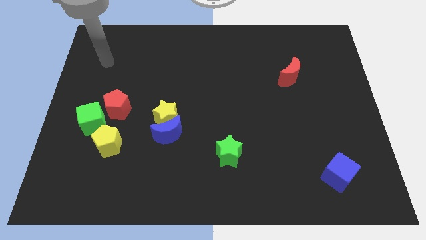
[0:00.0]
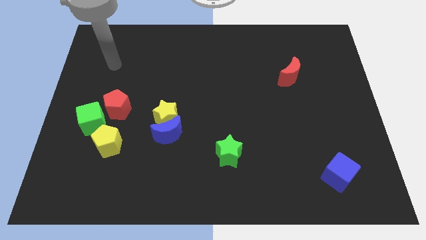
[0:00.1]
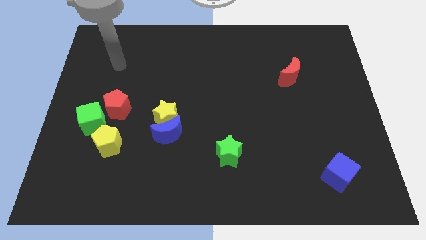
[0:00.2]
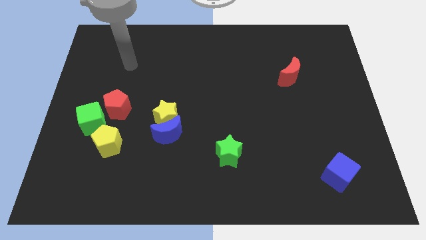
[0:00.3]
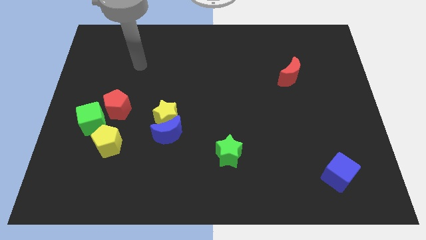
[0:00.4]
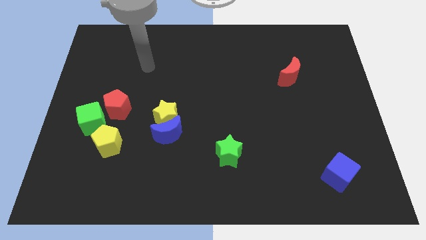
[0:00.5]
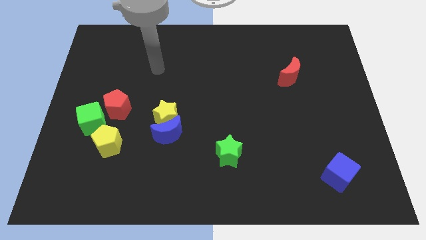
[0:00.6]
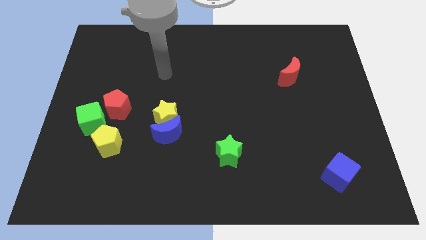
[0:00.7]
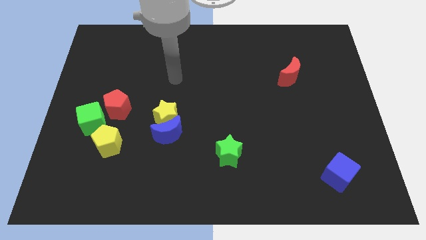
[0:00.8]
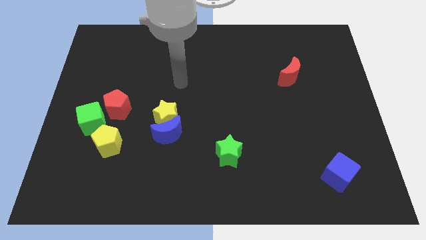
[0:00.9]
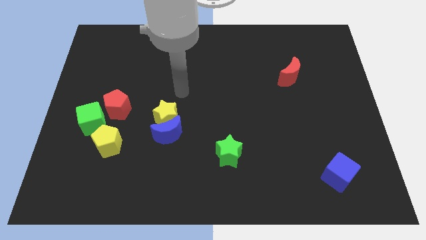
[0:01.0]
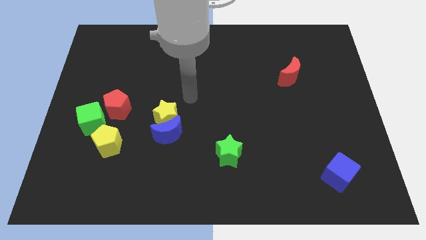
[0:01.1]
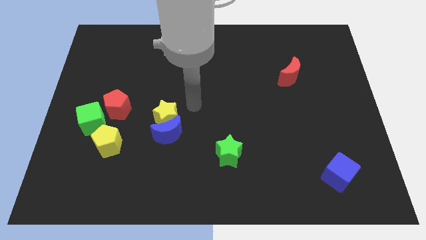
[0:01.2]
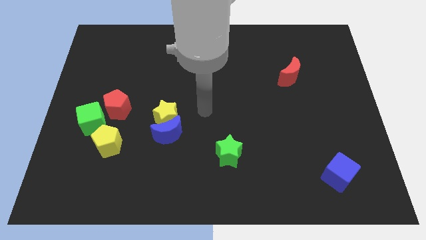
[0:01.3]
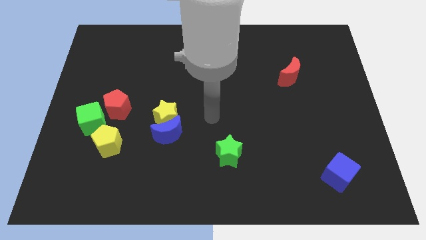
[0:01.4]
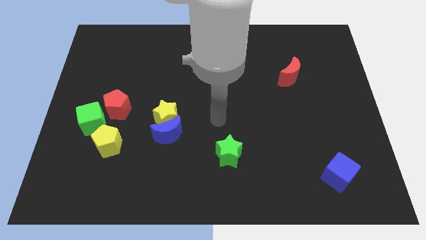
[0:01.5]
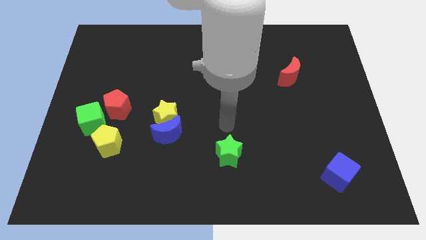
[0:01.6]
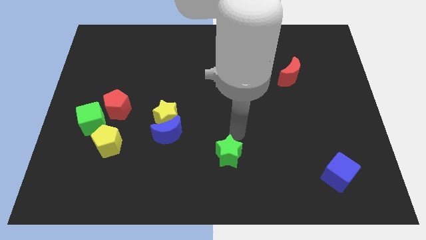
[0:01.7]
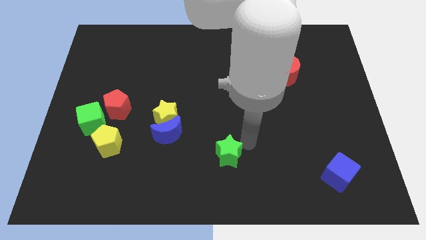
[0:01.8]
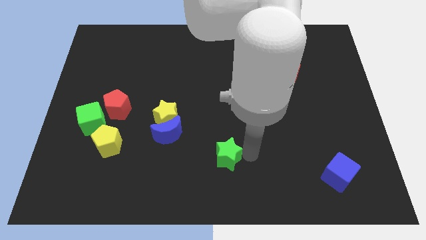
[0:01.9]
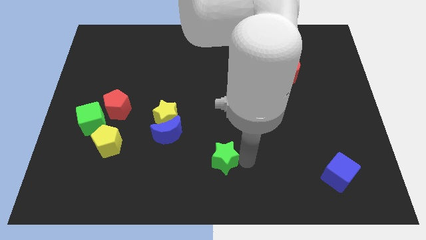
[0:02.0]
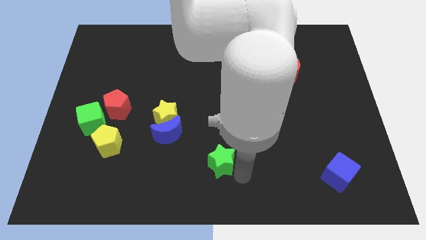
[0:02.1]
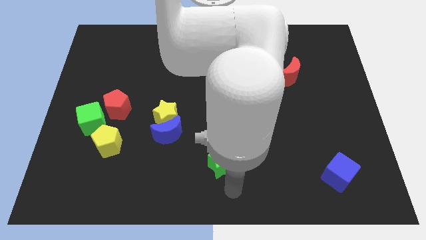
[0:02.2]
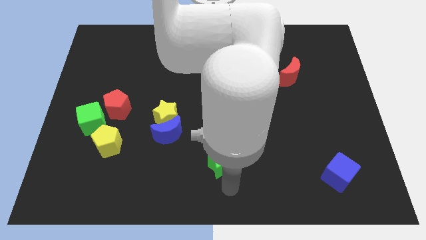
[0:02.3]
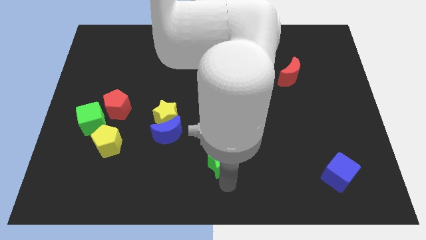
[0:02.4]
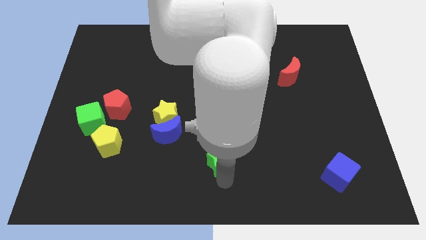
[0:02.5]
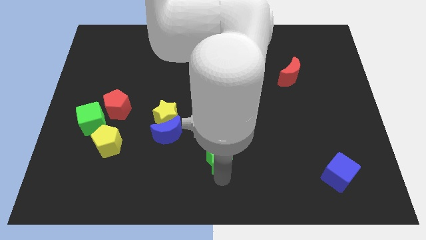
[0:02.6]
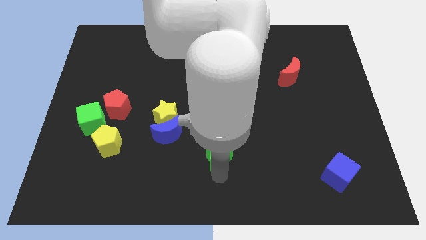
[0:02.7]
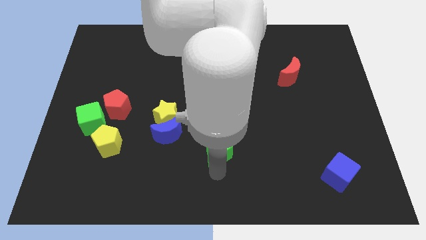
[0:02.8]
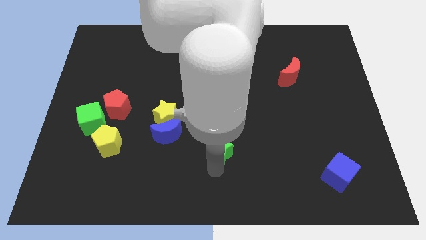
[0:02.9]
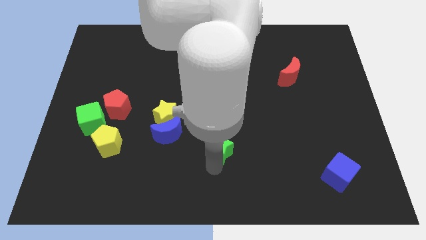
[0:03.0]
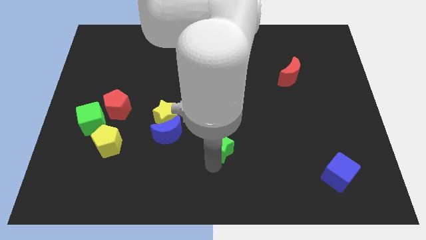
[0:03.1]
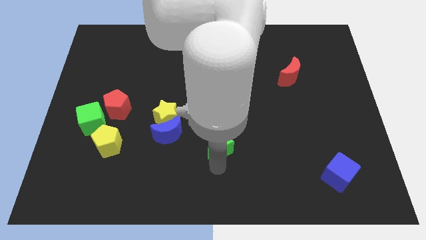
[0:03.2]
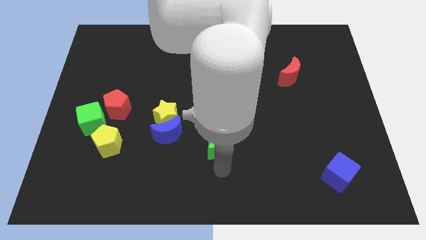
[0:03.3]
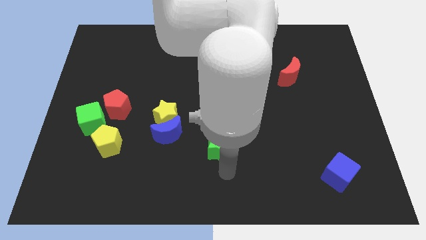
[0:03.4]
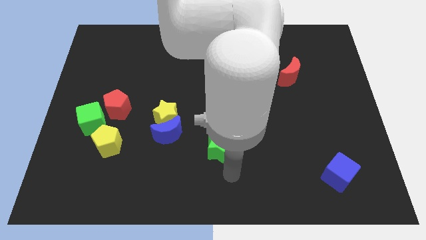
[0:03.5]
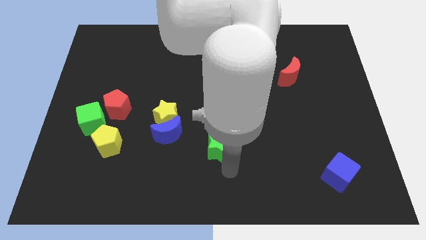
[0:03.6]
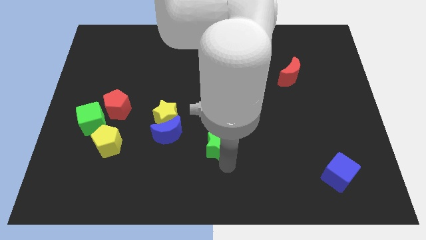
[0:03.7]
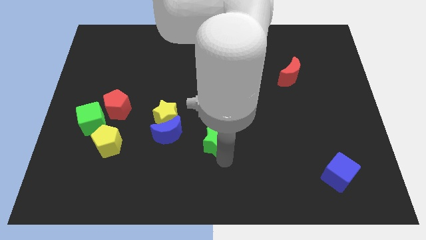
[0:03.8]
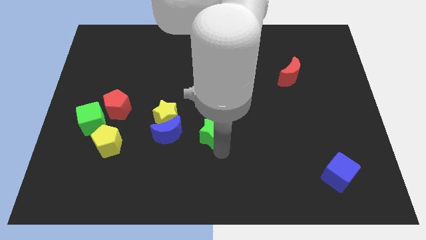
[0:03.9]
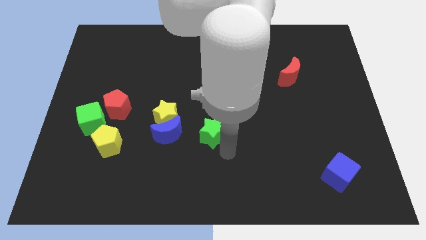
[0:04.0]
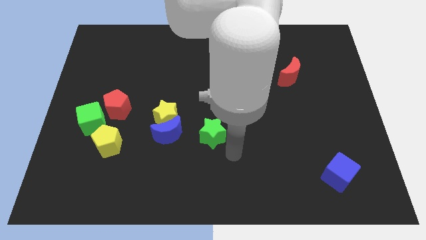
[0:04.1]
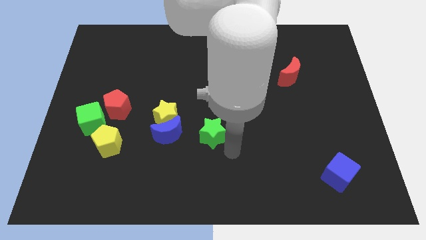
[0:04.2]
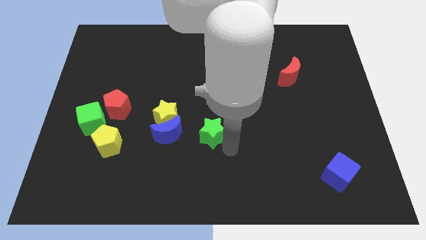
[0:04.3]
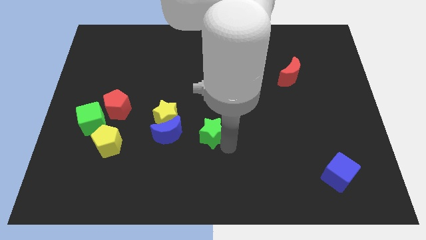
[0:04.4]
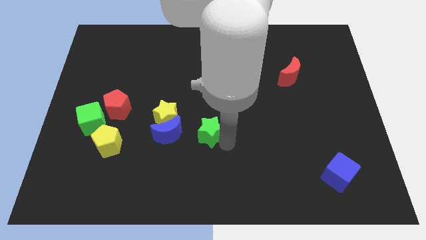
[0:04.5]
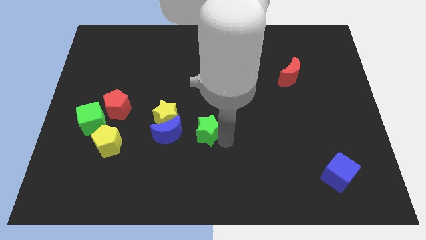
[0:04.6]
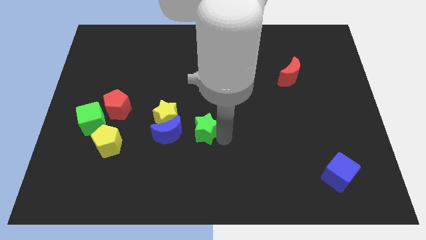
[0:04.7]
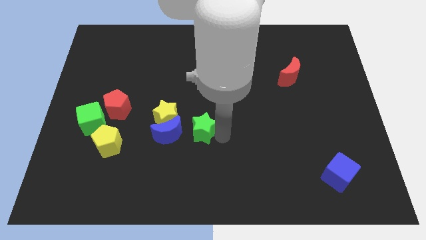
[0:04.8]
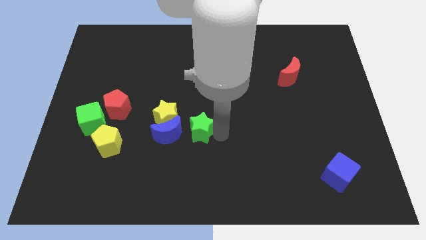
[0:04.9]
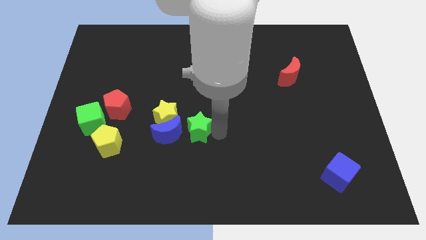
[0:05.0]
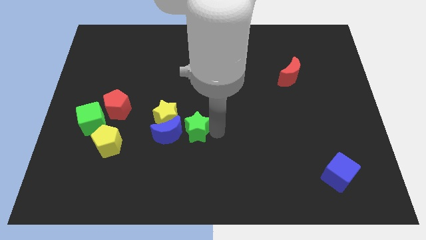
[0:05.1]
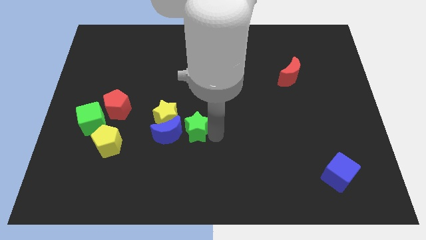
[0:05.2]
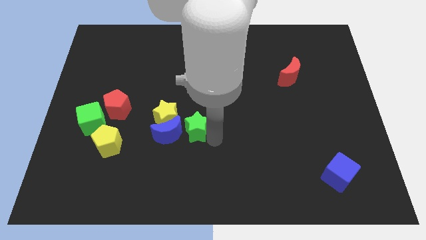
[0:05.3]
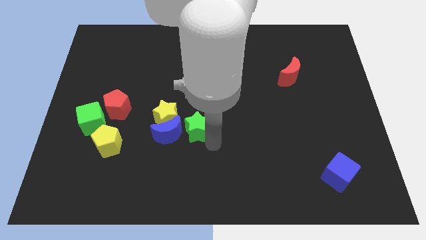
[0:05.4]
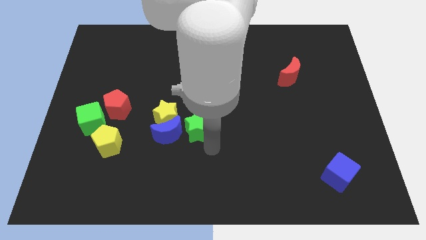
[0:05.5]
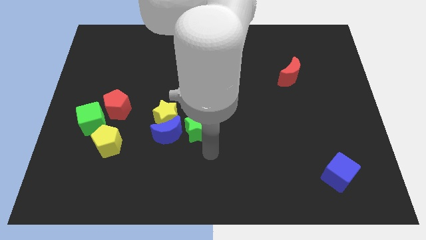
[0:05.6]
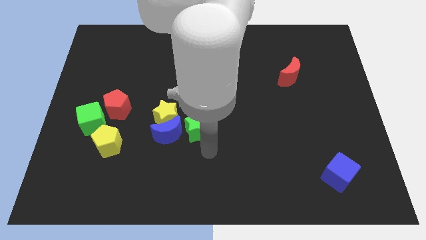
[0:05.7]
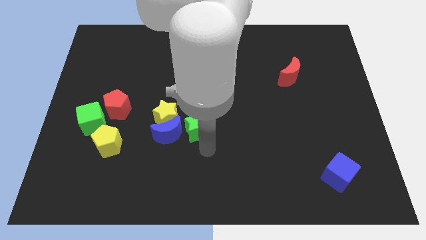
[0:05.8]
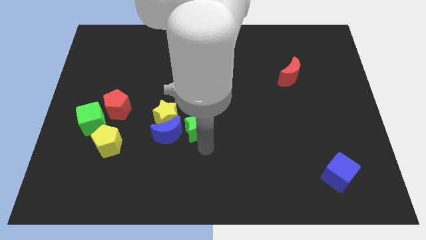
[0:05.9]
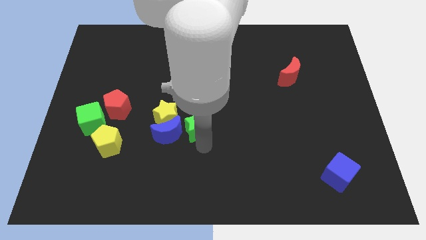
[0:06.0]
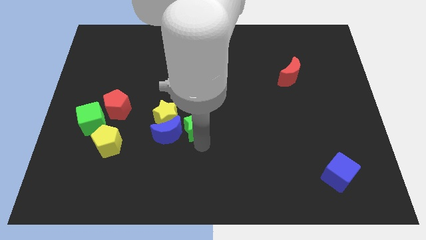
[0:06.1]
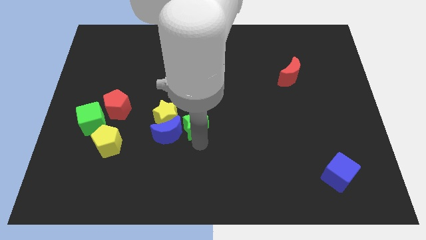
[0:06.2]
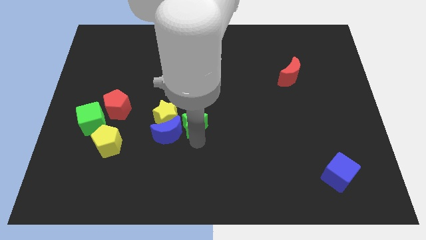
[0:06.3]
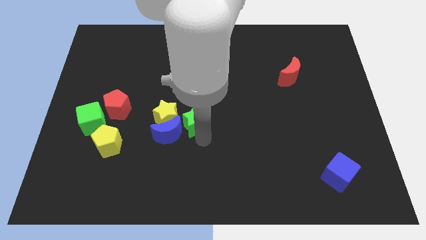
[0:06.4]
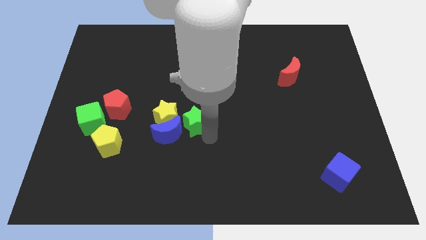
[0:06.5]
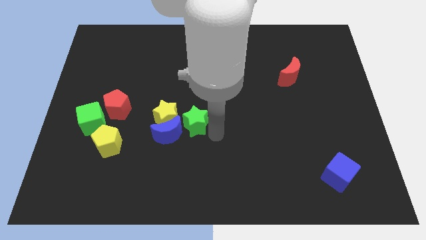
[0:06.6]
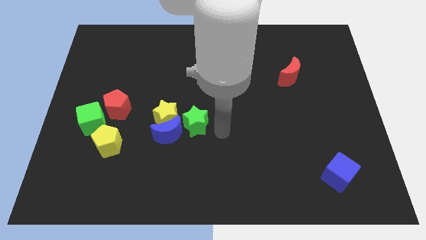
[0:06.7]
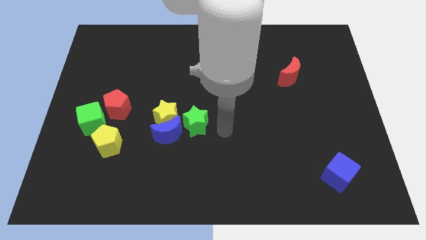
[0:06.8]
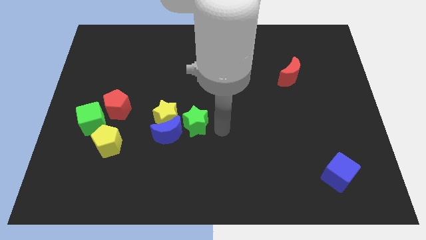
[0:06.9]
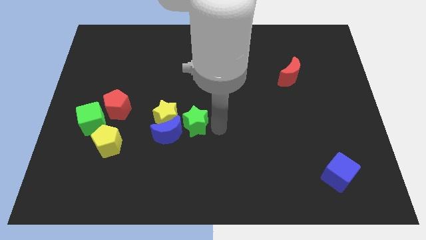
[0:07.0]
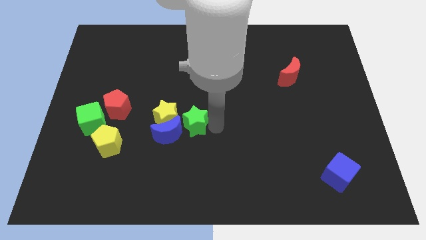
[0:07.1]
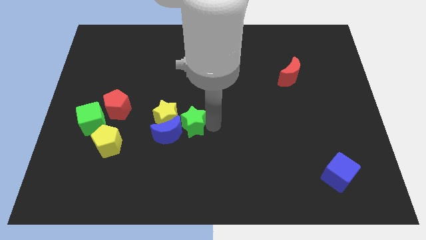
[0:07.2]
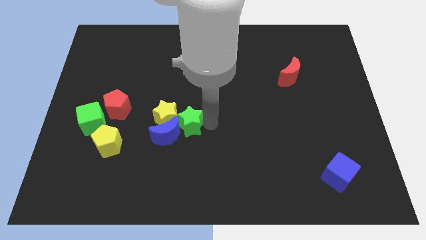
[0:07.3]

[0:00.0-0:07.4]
push the green star to the yellow star
